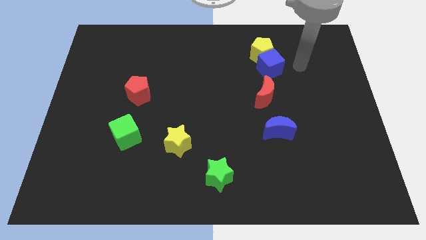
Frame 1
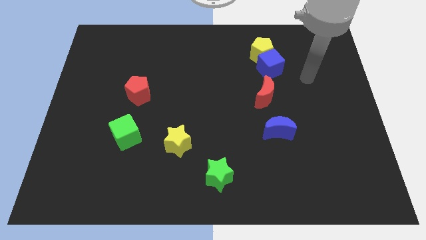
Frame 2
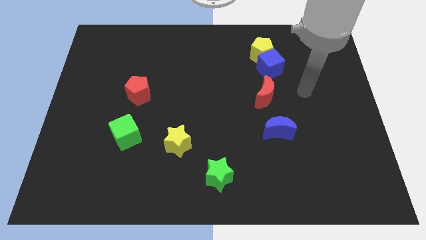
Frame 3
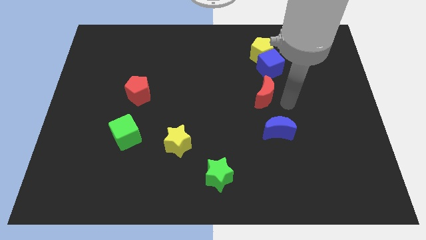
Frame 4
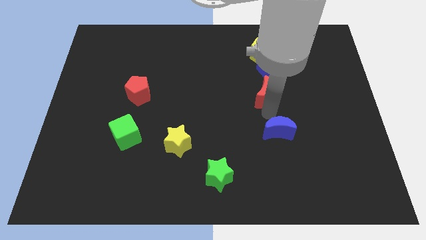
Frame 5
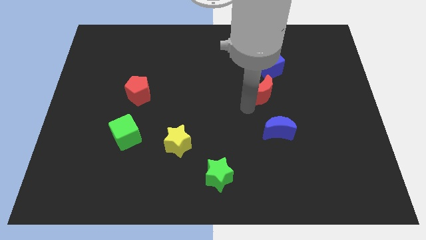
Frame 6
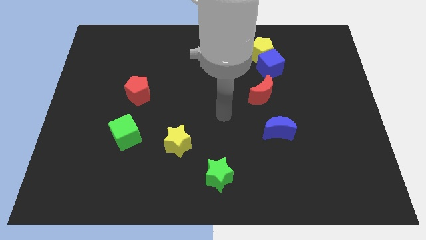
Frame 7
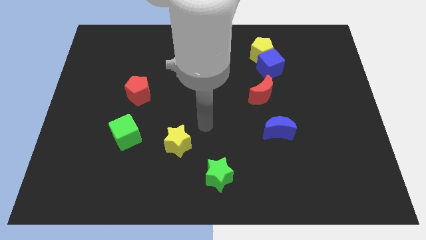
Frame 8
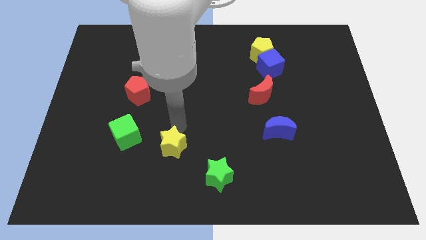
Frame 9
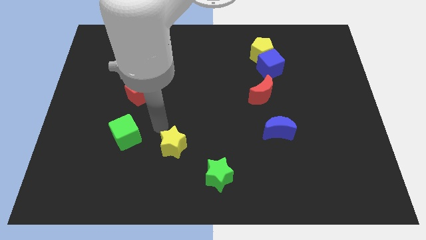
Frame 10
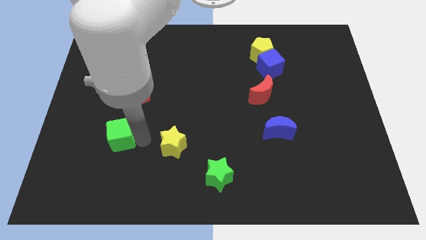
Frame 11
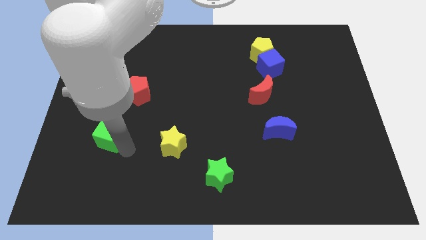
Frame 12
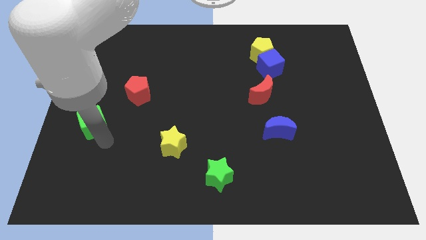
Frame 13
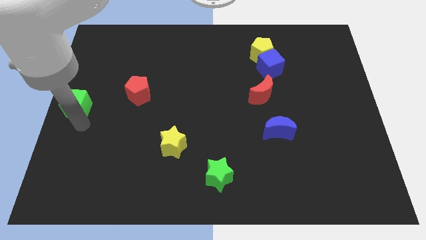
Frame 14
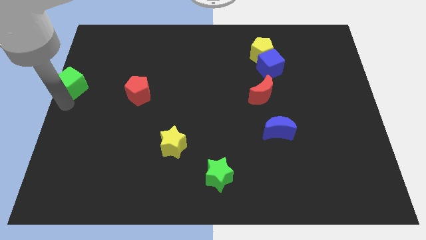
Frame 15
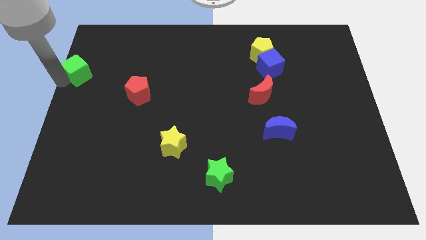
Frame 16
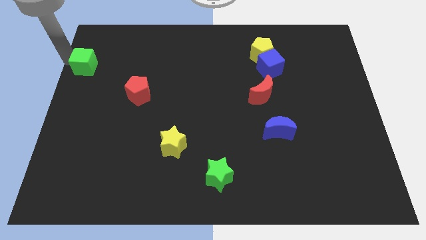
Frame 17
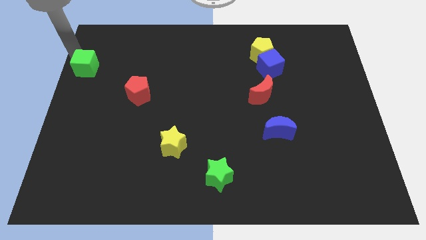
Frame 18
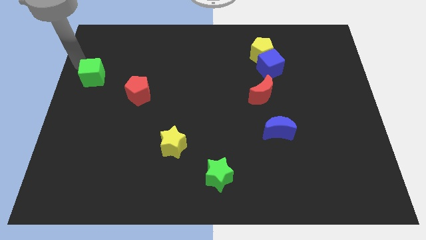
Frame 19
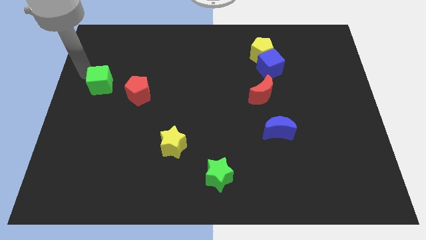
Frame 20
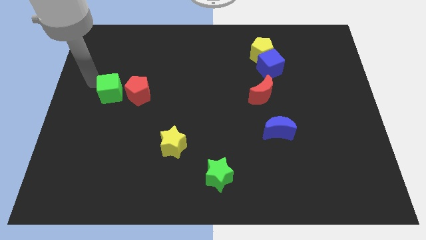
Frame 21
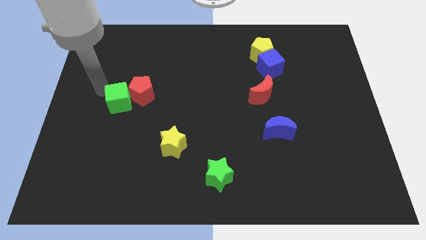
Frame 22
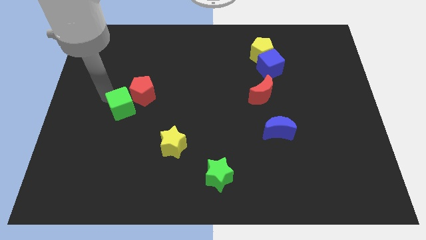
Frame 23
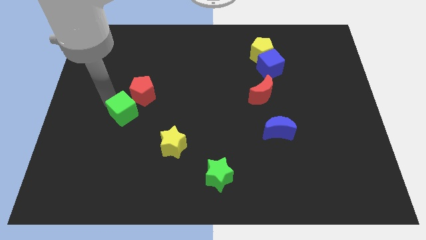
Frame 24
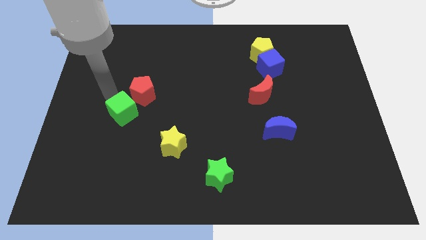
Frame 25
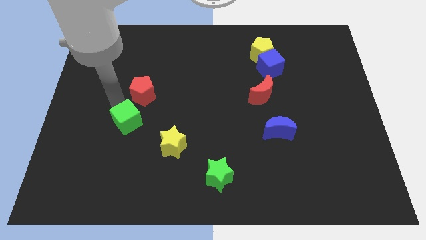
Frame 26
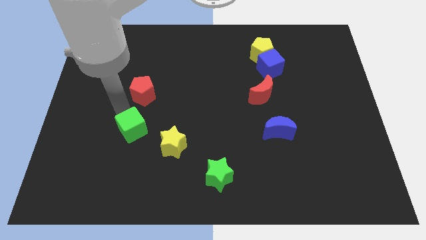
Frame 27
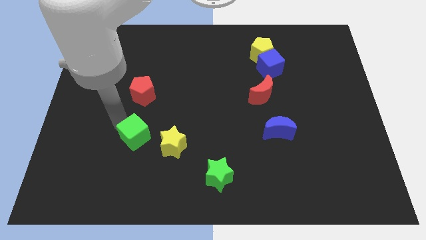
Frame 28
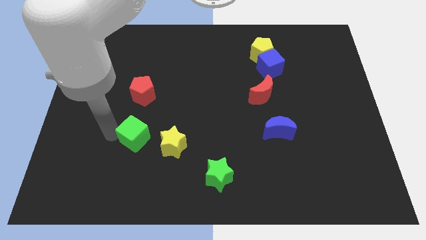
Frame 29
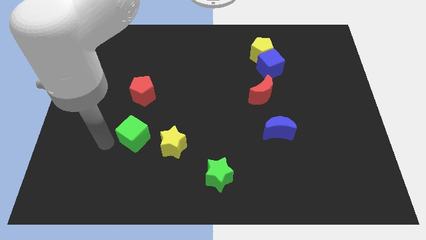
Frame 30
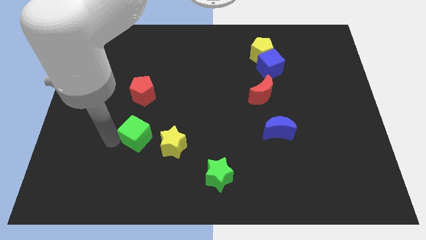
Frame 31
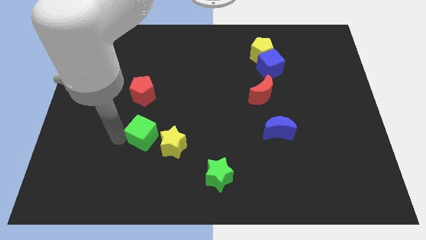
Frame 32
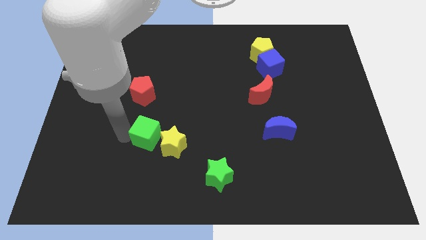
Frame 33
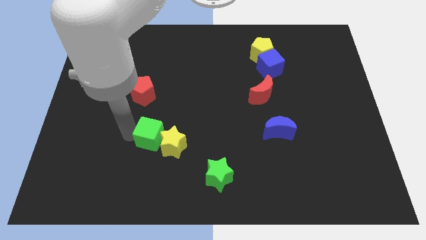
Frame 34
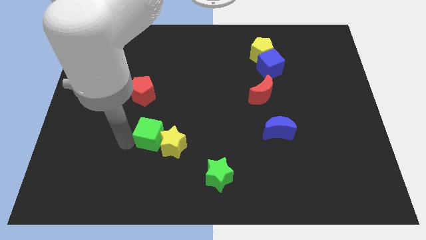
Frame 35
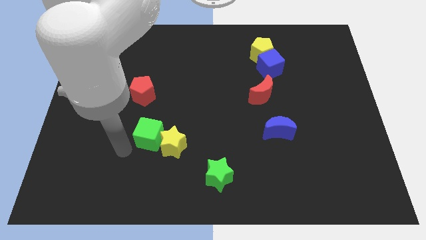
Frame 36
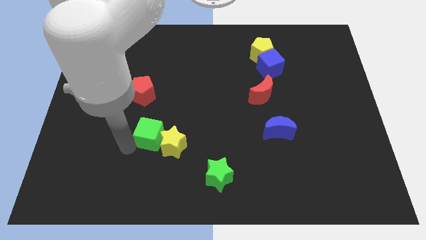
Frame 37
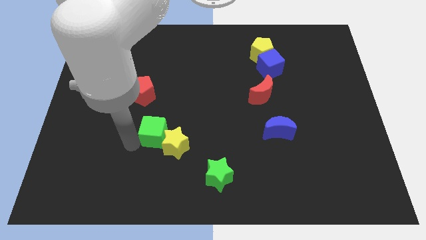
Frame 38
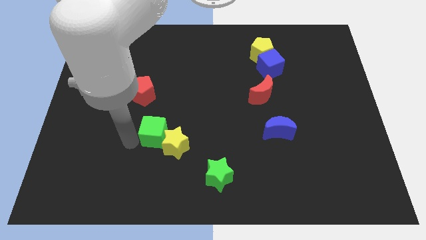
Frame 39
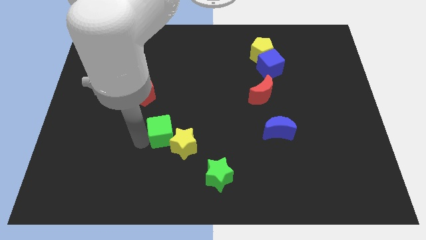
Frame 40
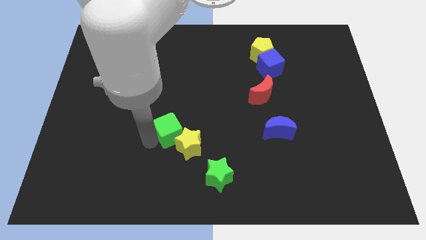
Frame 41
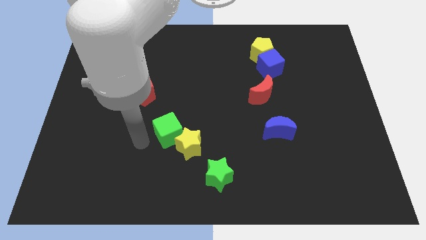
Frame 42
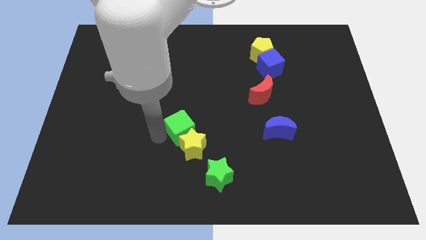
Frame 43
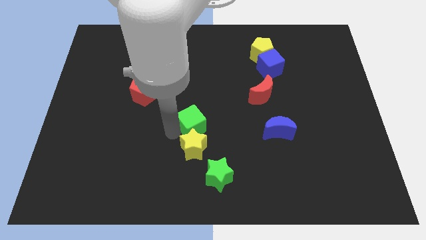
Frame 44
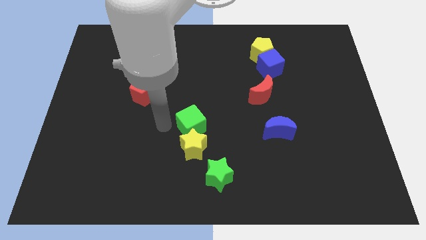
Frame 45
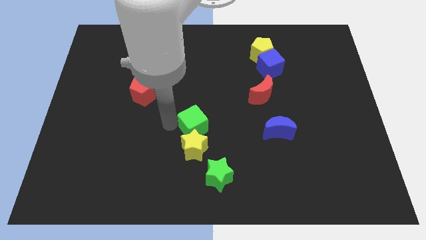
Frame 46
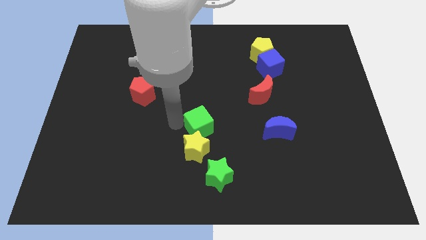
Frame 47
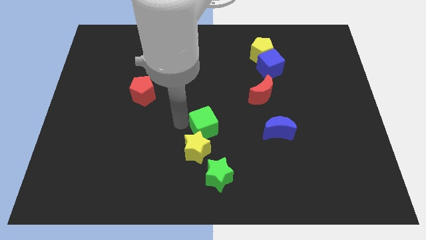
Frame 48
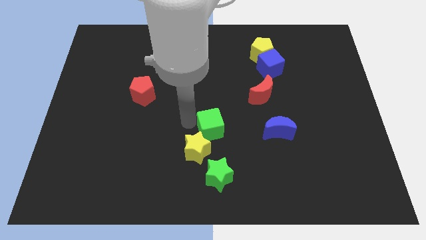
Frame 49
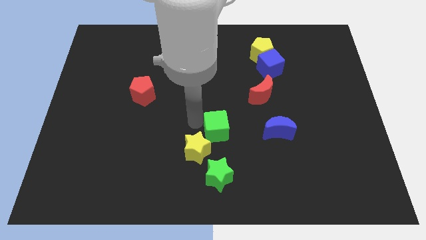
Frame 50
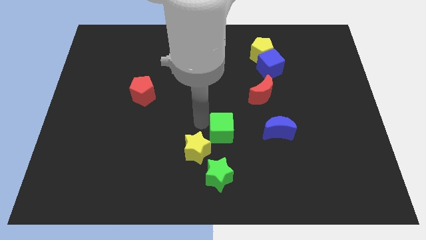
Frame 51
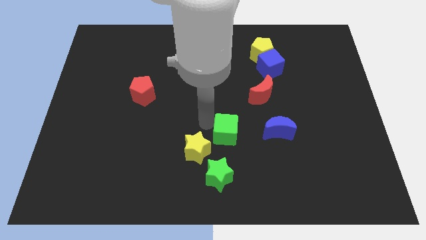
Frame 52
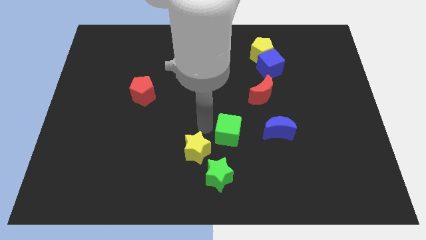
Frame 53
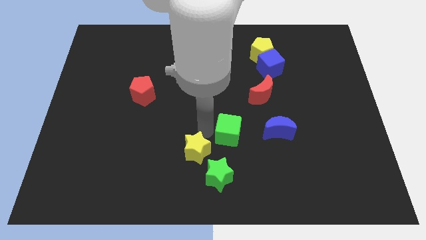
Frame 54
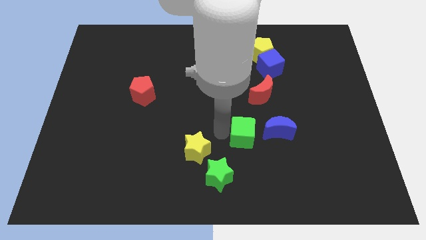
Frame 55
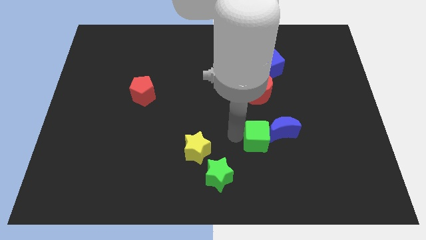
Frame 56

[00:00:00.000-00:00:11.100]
move the green cube next to the blue moon
